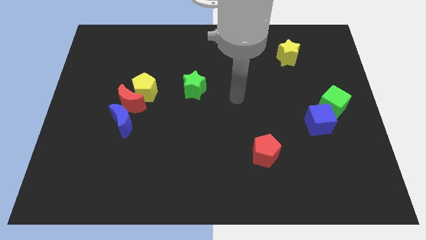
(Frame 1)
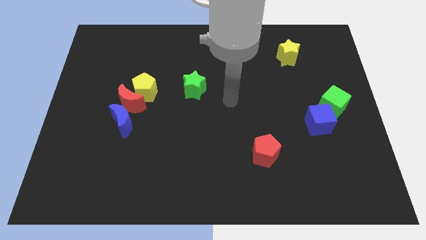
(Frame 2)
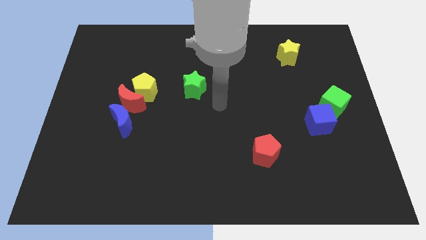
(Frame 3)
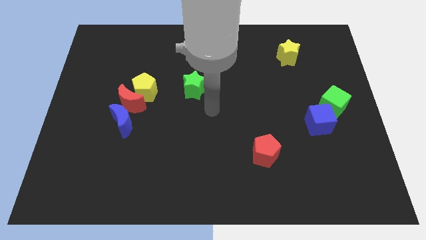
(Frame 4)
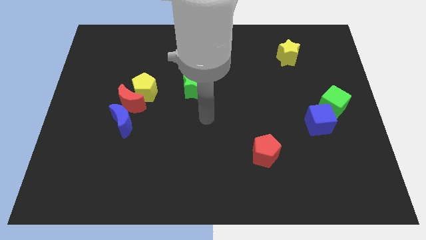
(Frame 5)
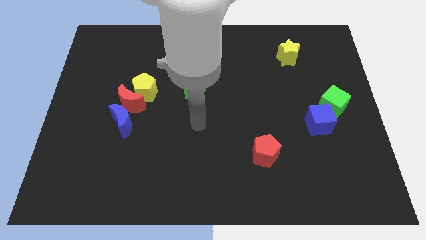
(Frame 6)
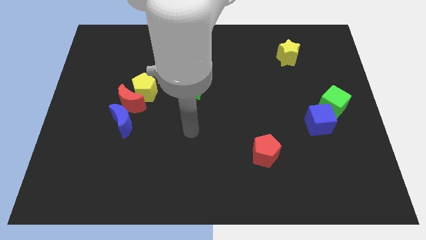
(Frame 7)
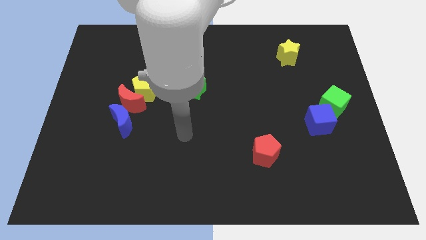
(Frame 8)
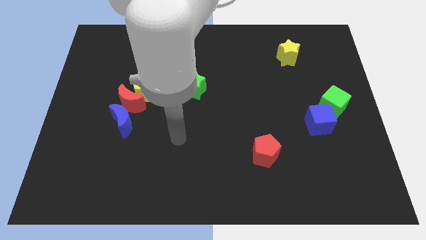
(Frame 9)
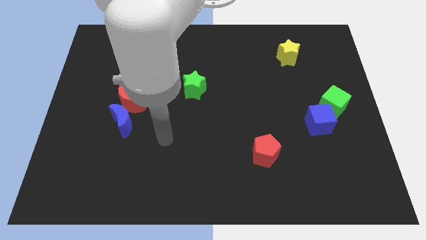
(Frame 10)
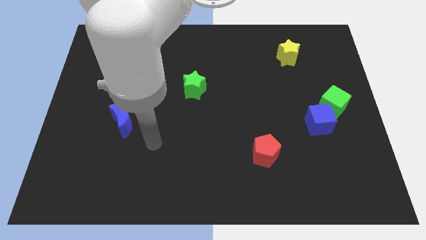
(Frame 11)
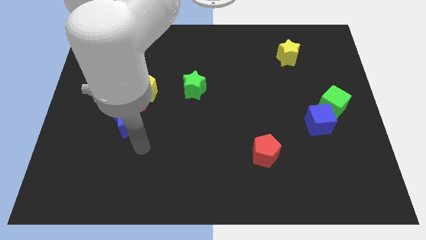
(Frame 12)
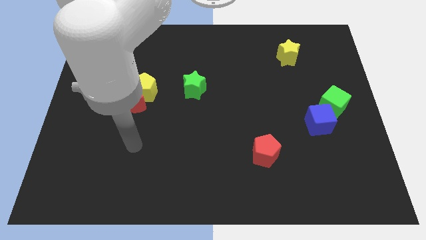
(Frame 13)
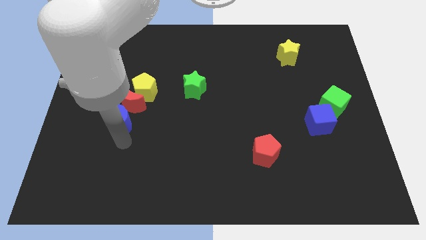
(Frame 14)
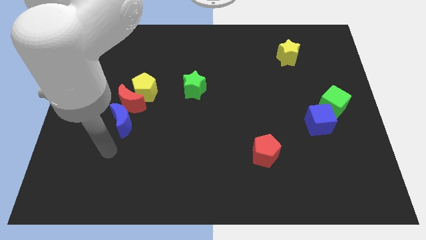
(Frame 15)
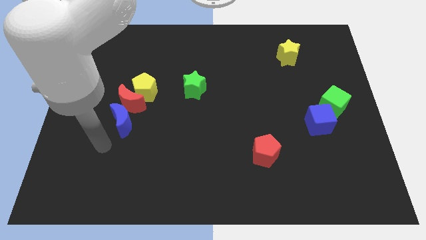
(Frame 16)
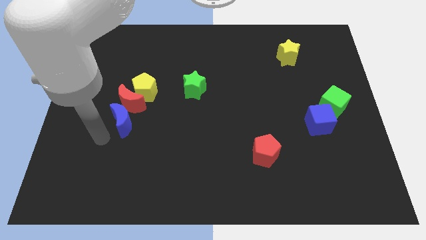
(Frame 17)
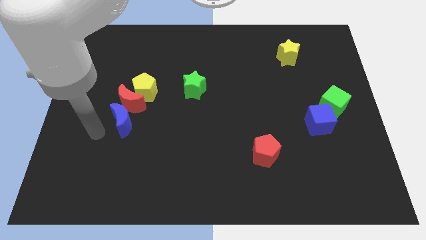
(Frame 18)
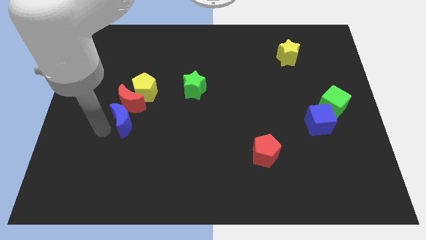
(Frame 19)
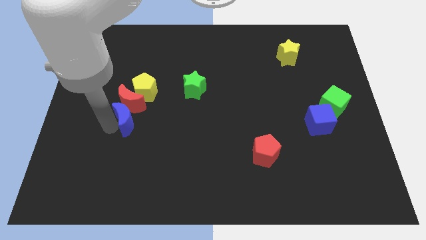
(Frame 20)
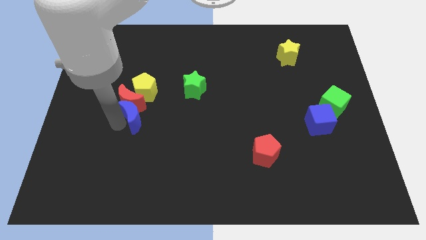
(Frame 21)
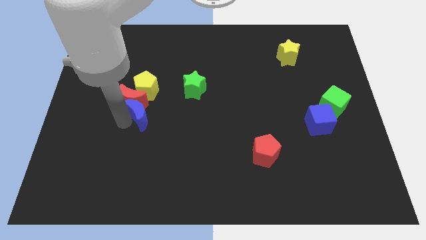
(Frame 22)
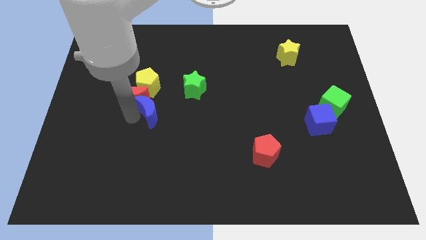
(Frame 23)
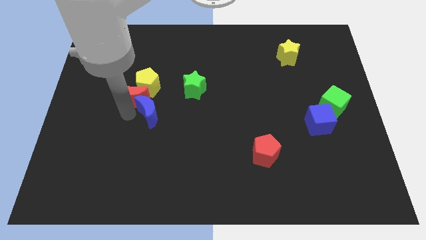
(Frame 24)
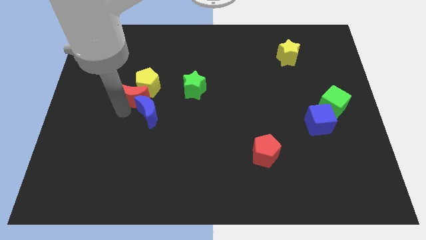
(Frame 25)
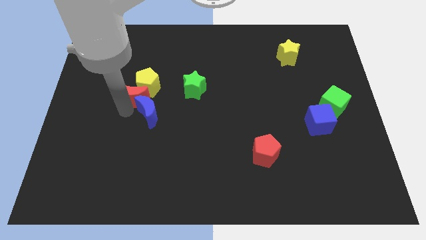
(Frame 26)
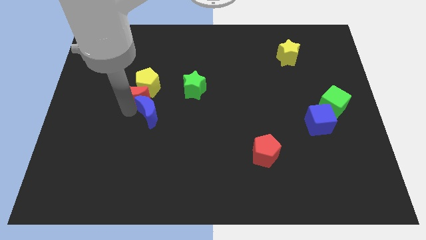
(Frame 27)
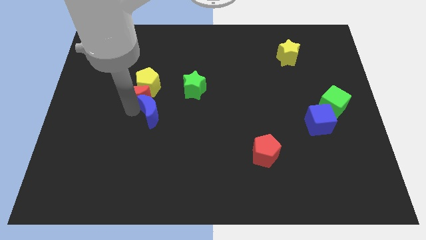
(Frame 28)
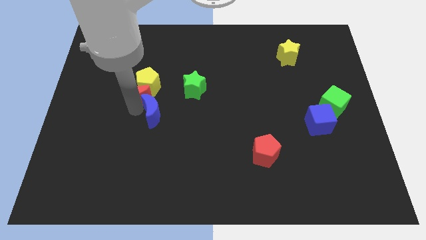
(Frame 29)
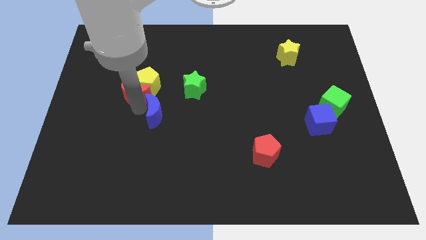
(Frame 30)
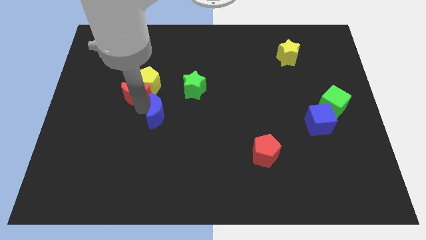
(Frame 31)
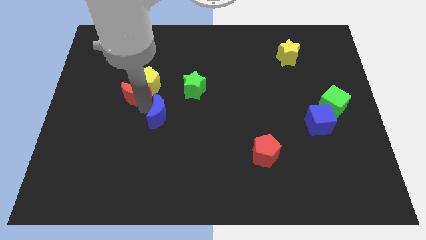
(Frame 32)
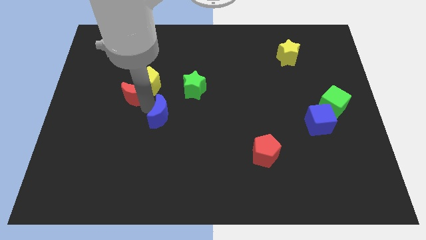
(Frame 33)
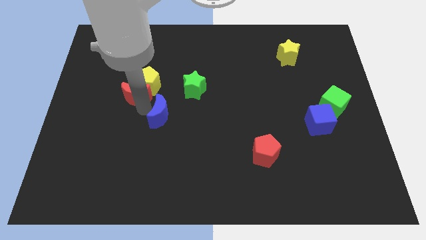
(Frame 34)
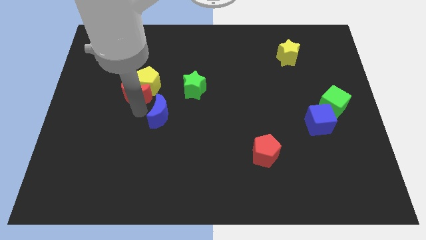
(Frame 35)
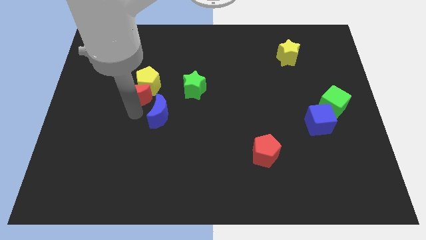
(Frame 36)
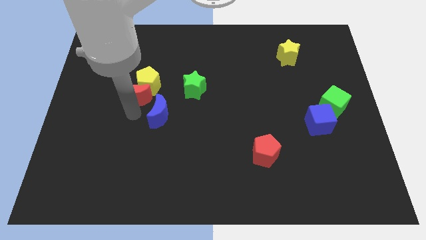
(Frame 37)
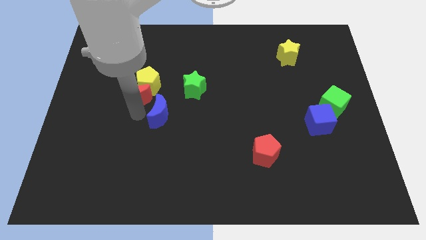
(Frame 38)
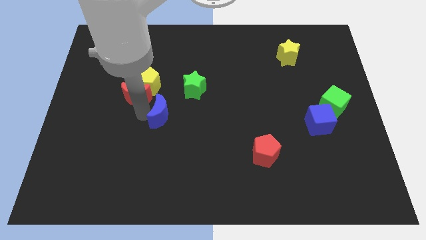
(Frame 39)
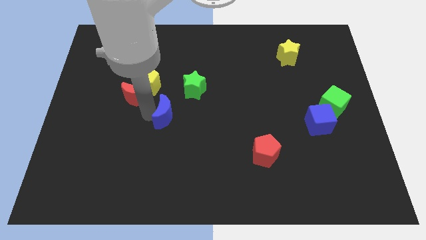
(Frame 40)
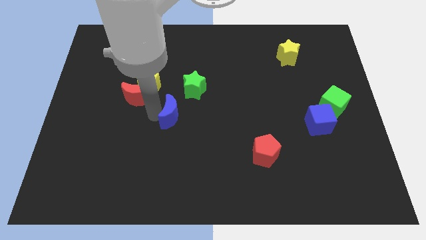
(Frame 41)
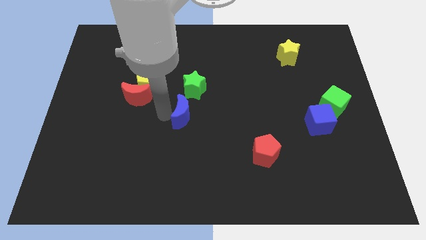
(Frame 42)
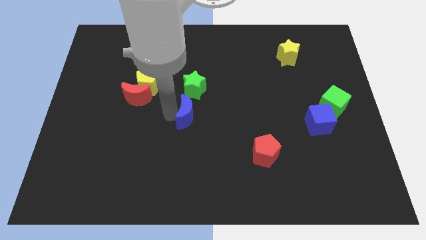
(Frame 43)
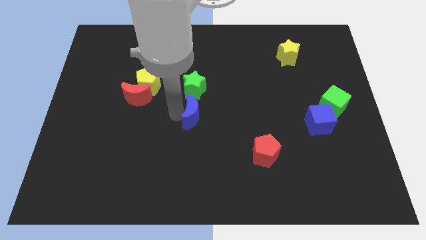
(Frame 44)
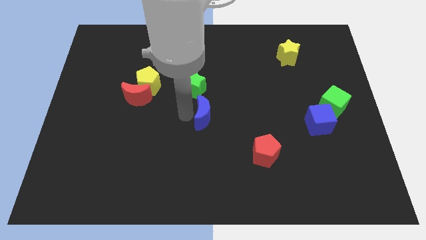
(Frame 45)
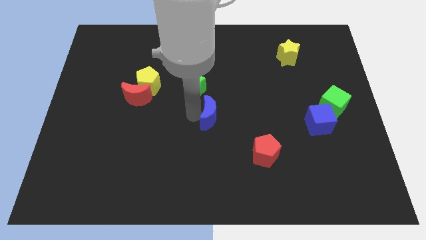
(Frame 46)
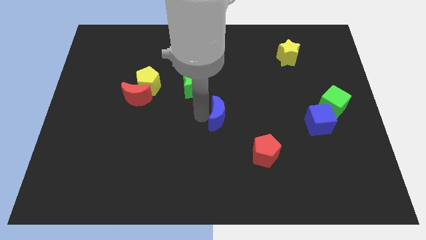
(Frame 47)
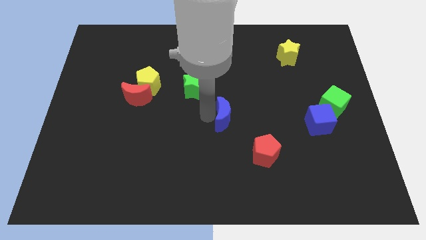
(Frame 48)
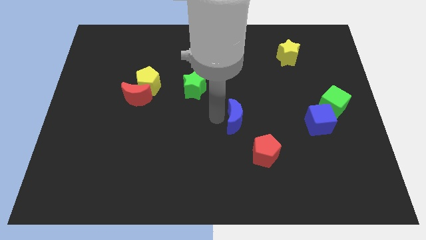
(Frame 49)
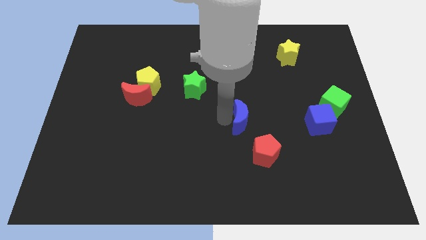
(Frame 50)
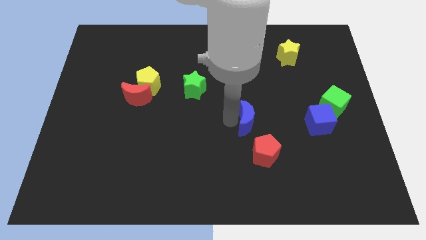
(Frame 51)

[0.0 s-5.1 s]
put the blue moon to the left of the blue cube

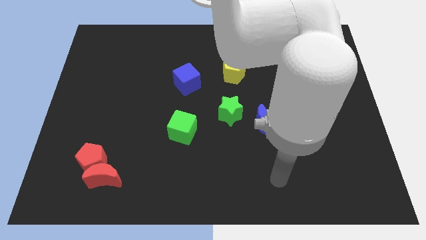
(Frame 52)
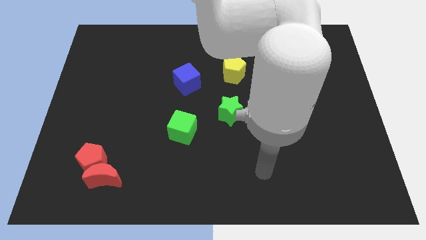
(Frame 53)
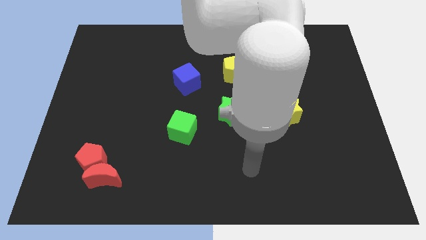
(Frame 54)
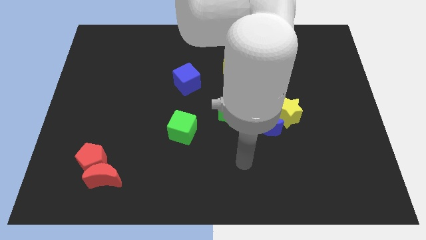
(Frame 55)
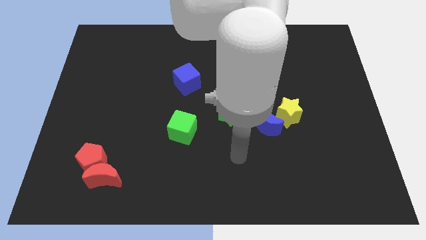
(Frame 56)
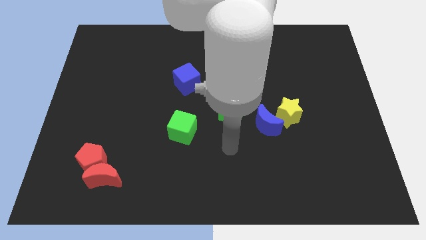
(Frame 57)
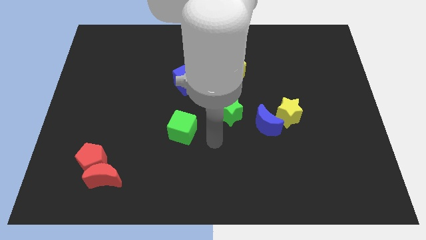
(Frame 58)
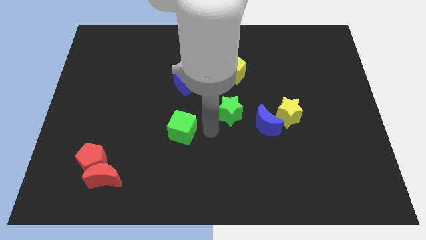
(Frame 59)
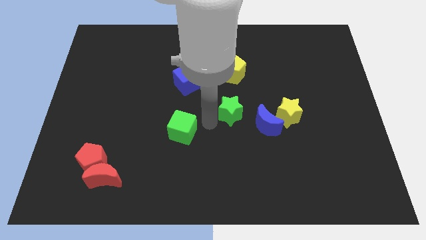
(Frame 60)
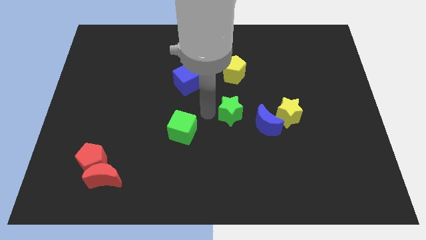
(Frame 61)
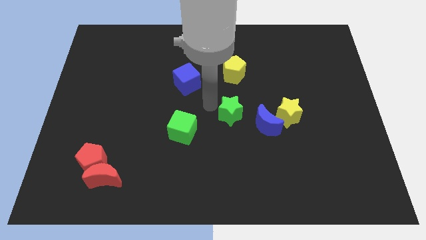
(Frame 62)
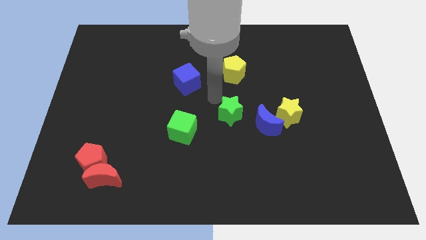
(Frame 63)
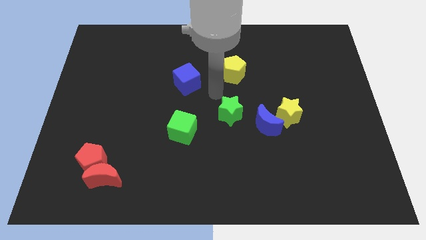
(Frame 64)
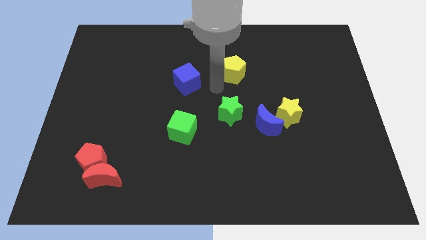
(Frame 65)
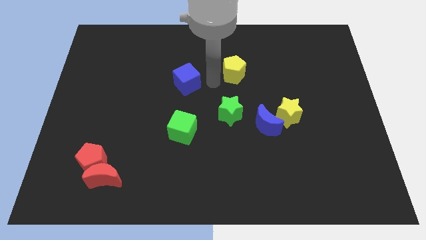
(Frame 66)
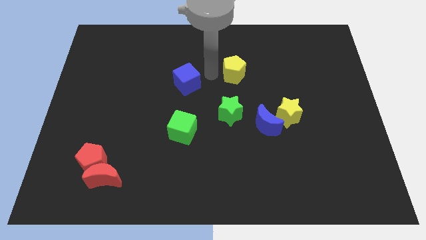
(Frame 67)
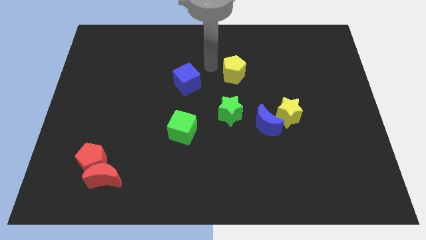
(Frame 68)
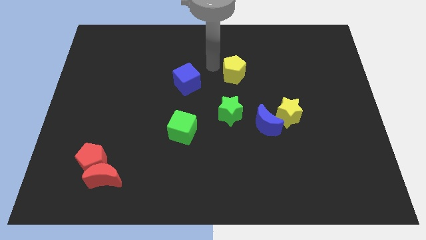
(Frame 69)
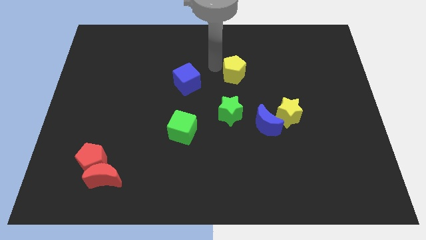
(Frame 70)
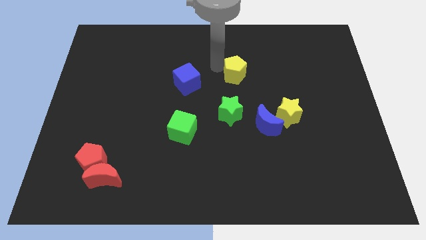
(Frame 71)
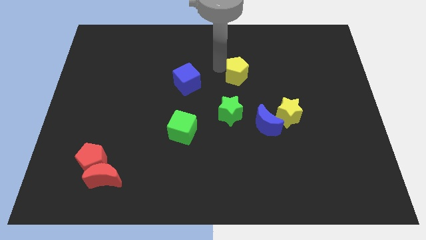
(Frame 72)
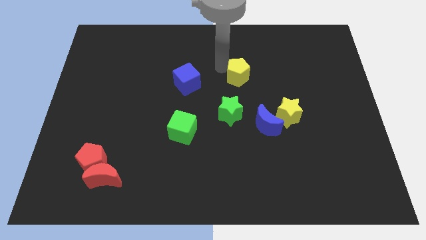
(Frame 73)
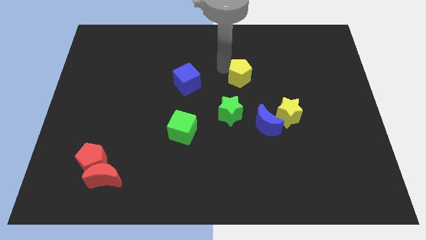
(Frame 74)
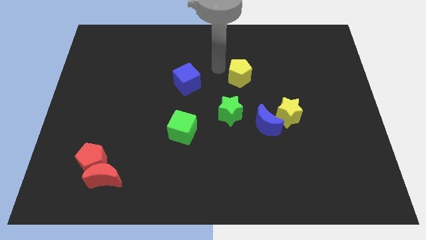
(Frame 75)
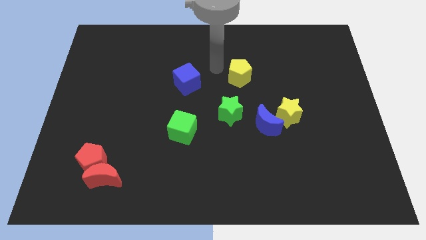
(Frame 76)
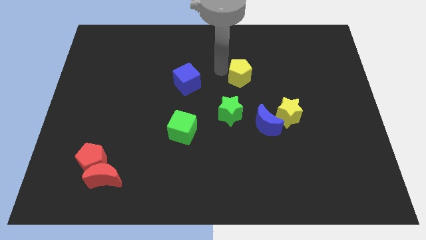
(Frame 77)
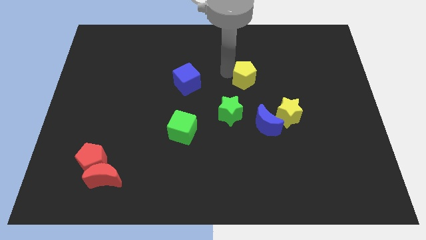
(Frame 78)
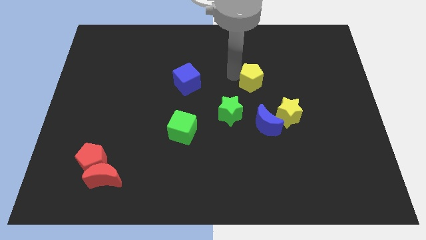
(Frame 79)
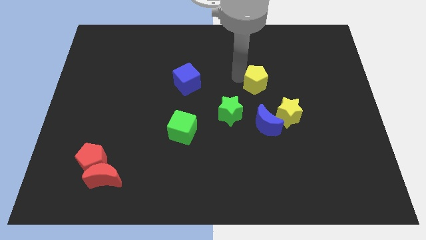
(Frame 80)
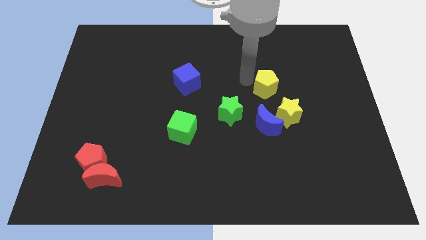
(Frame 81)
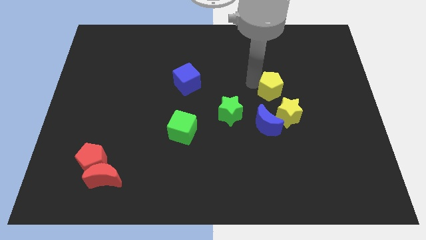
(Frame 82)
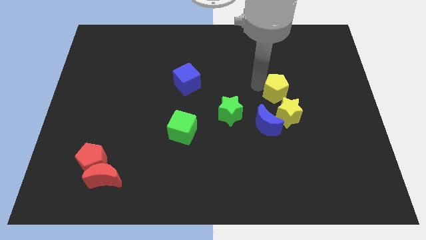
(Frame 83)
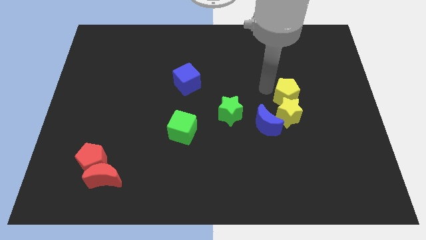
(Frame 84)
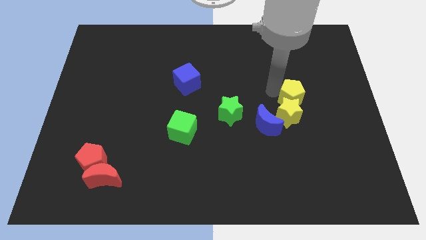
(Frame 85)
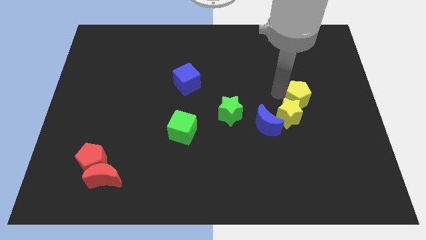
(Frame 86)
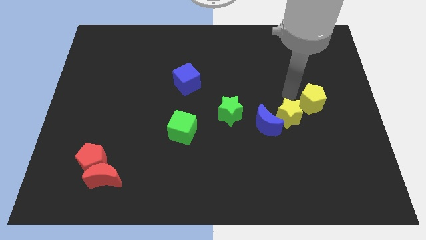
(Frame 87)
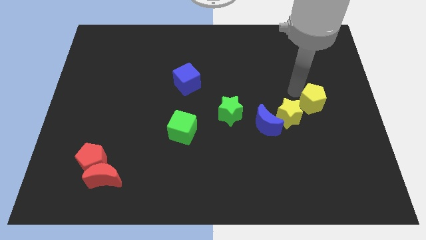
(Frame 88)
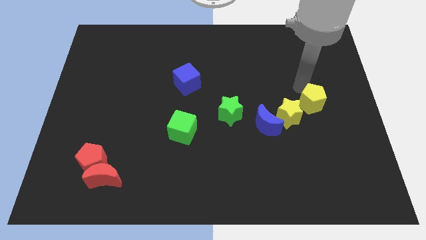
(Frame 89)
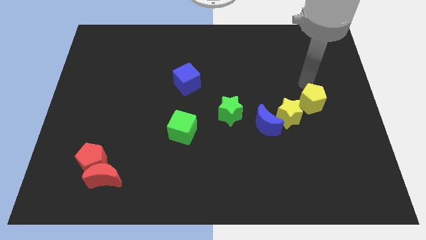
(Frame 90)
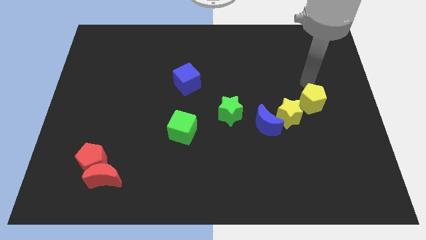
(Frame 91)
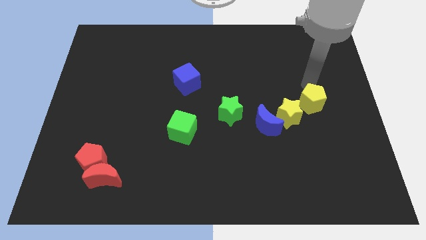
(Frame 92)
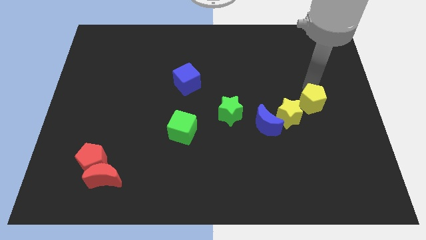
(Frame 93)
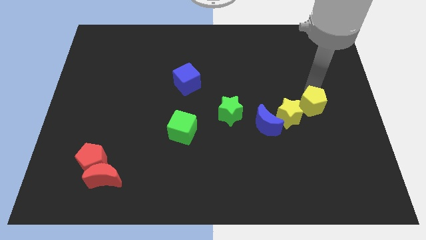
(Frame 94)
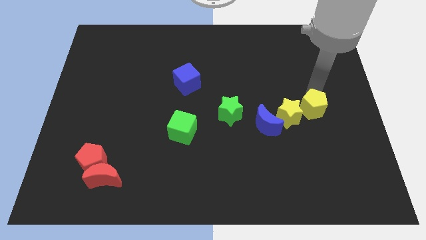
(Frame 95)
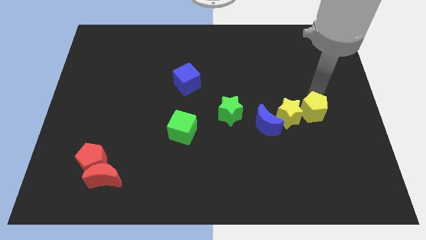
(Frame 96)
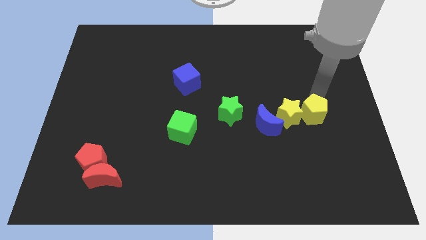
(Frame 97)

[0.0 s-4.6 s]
move the yellow pentagon to the bottom right side of the yellow star
